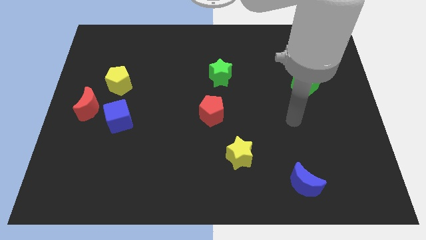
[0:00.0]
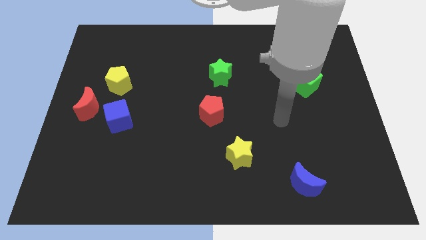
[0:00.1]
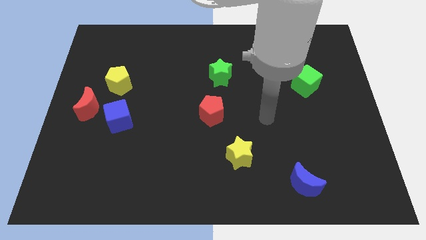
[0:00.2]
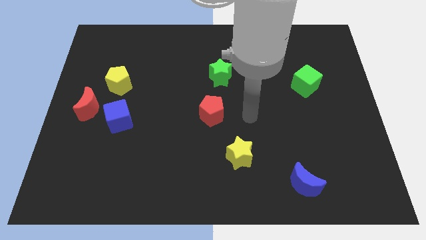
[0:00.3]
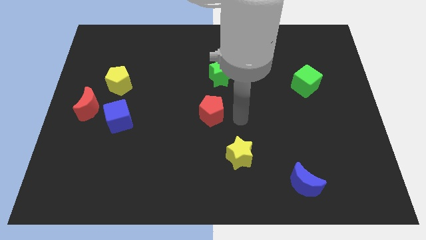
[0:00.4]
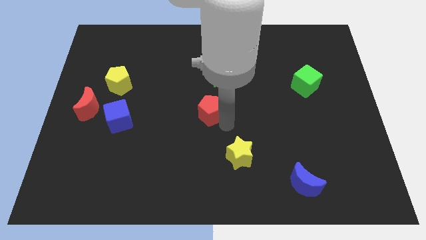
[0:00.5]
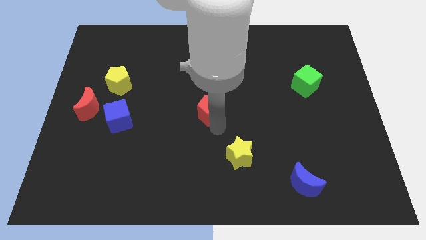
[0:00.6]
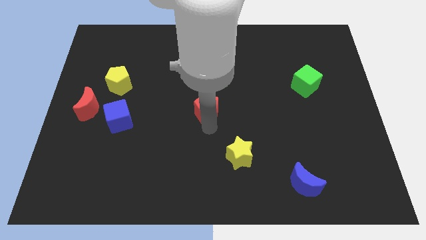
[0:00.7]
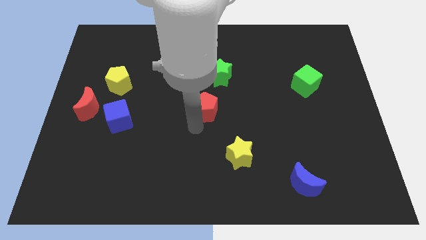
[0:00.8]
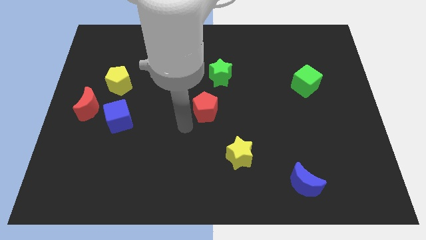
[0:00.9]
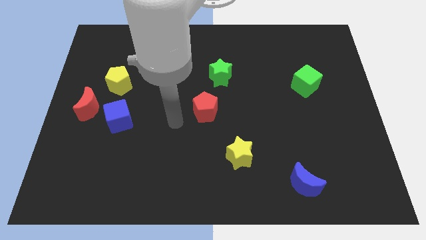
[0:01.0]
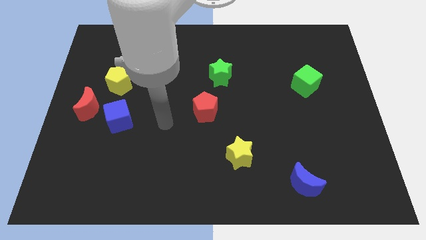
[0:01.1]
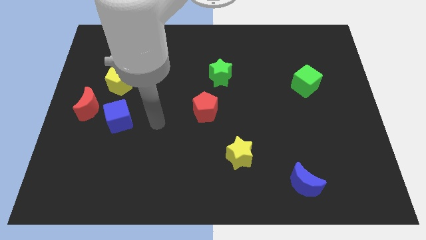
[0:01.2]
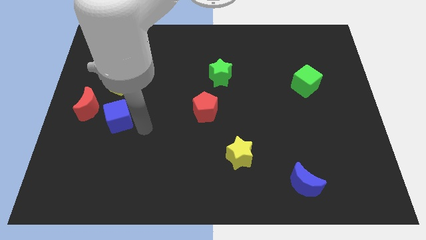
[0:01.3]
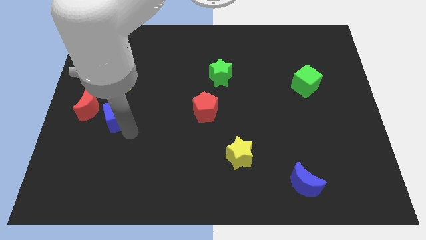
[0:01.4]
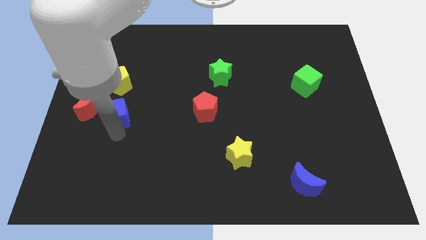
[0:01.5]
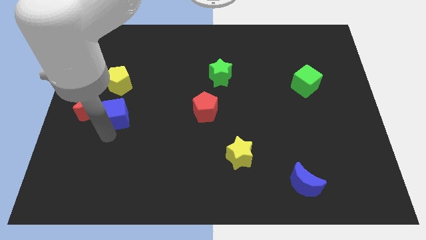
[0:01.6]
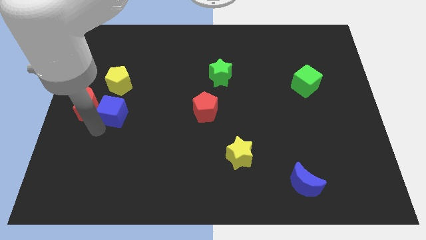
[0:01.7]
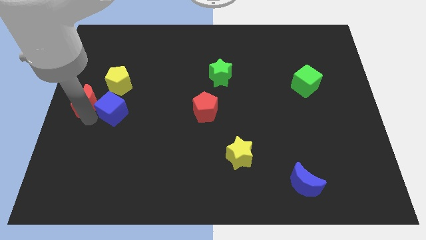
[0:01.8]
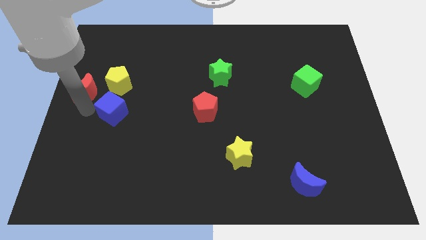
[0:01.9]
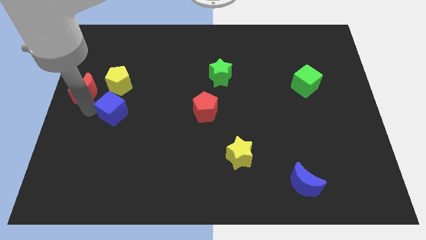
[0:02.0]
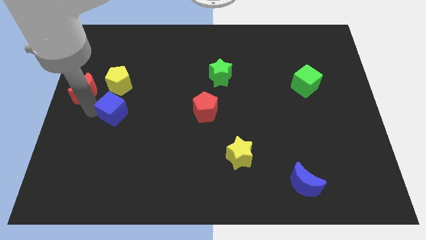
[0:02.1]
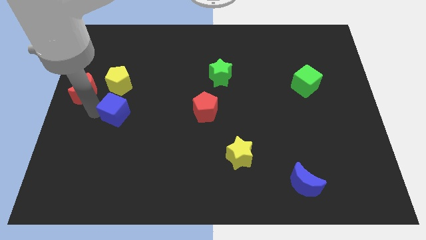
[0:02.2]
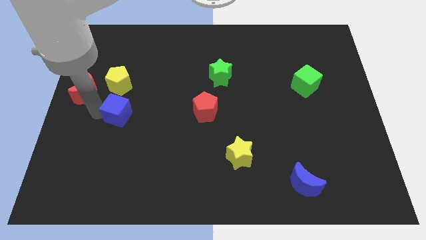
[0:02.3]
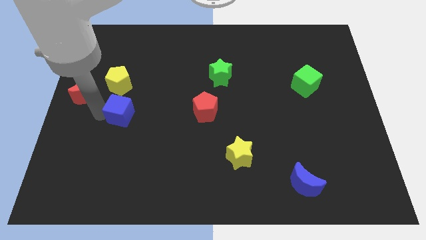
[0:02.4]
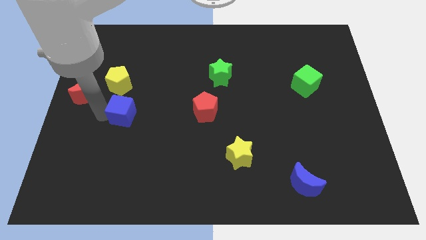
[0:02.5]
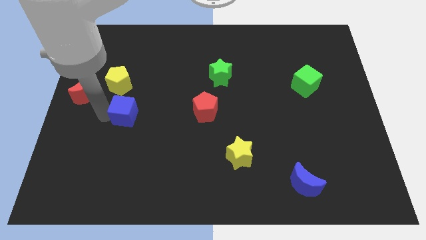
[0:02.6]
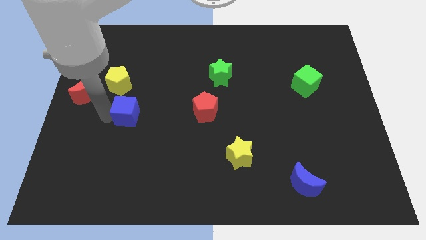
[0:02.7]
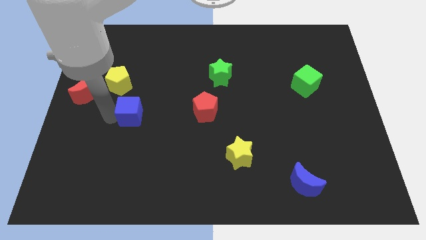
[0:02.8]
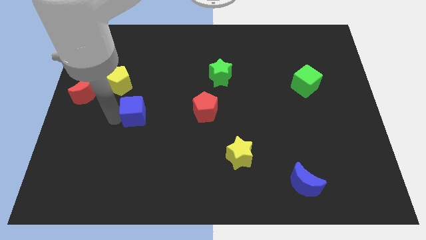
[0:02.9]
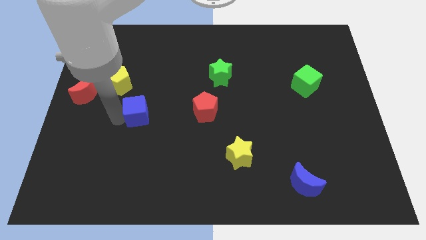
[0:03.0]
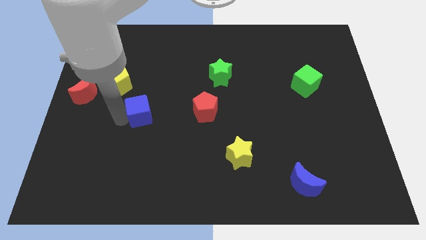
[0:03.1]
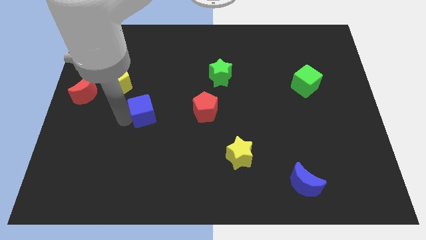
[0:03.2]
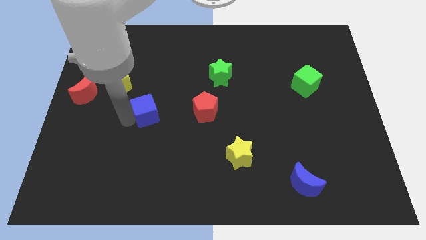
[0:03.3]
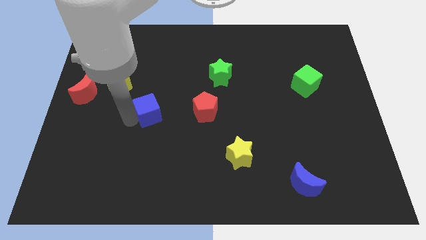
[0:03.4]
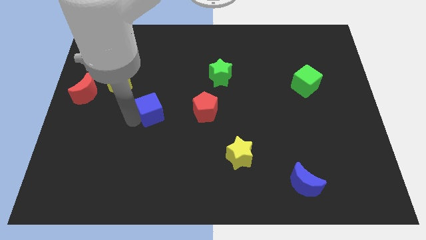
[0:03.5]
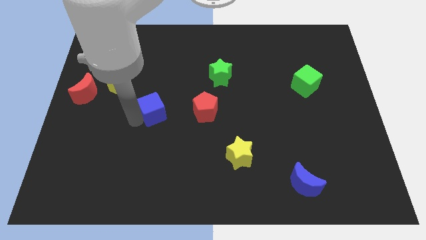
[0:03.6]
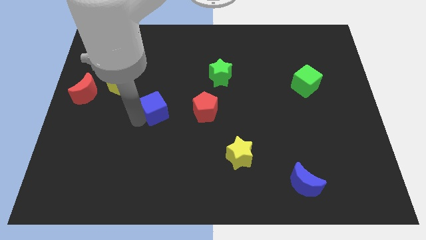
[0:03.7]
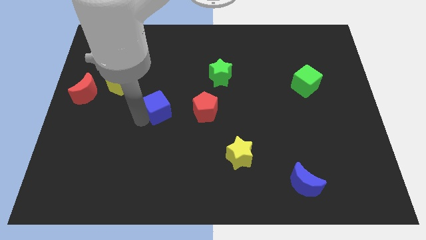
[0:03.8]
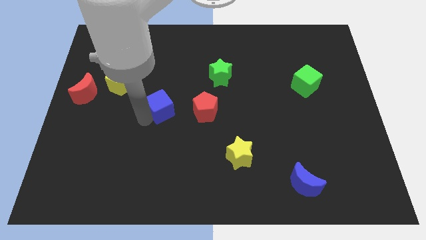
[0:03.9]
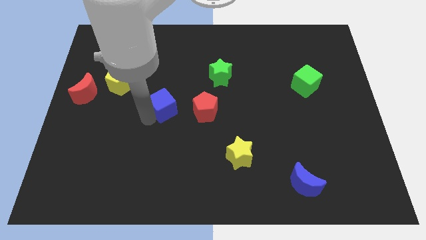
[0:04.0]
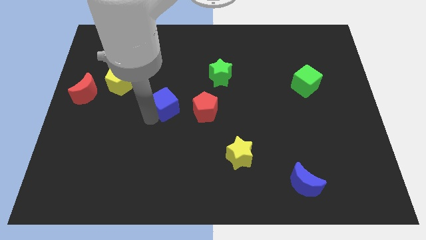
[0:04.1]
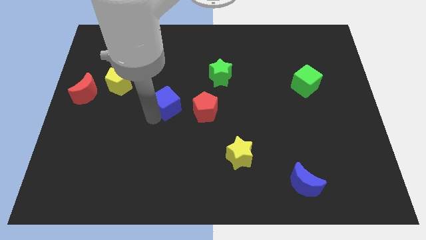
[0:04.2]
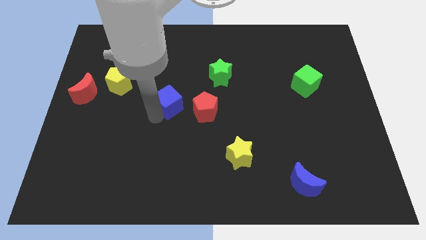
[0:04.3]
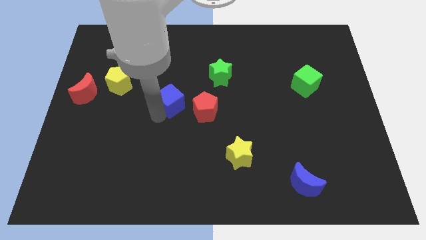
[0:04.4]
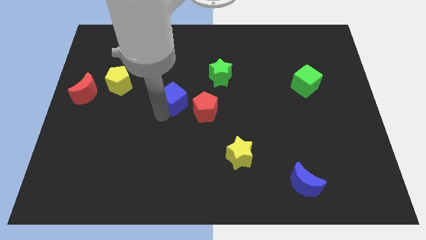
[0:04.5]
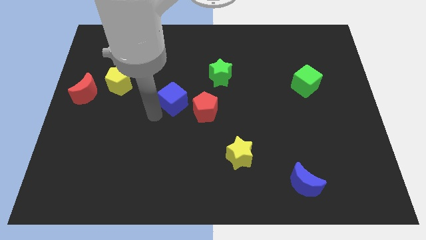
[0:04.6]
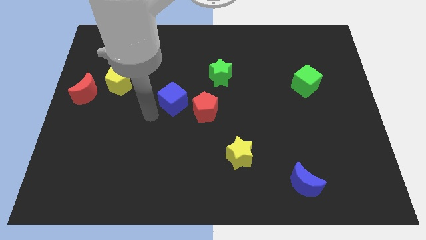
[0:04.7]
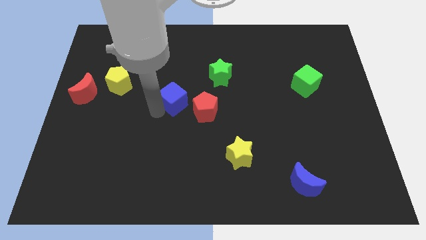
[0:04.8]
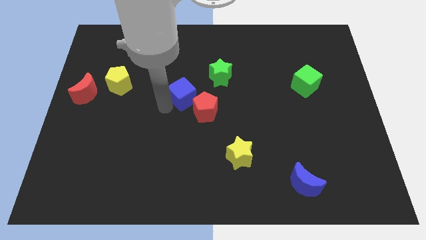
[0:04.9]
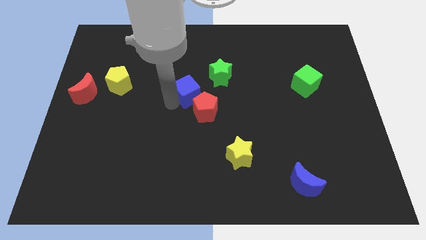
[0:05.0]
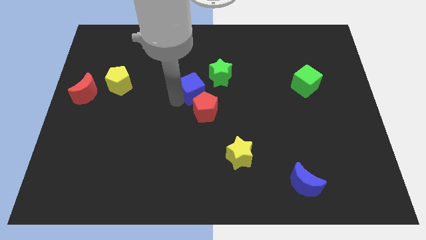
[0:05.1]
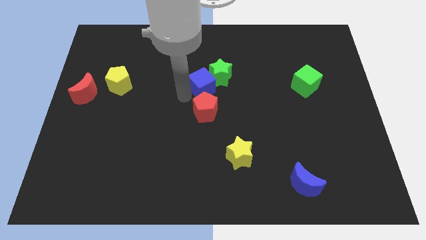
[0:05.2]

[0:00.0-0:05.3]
slide the blue cube close to the green star

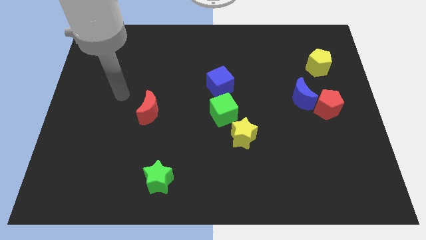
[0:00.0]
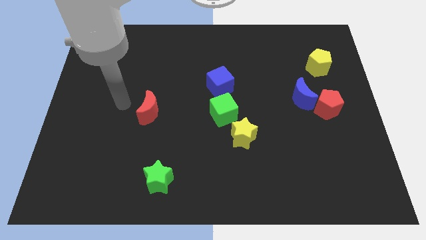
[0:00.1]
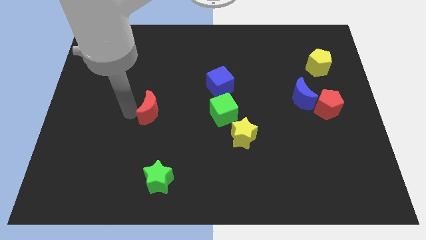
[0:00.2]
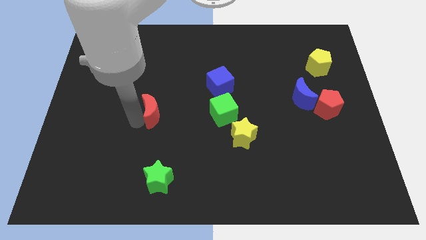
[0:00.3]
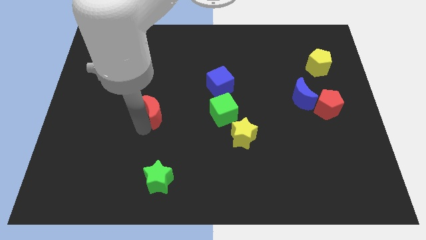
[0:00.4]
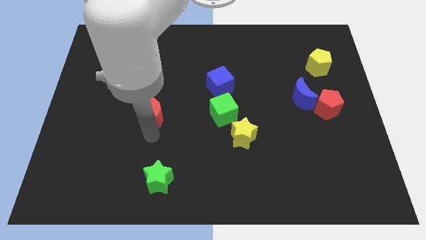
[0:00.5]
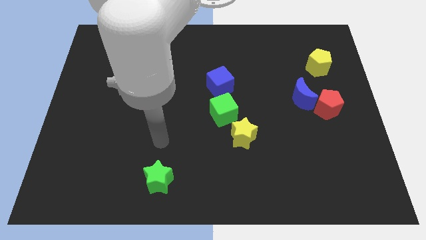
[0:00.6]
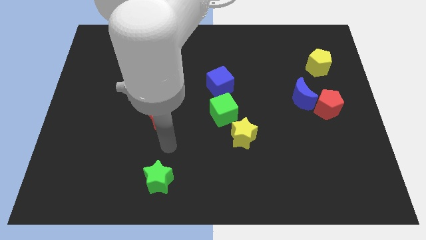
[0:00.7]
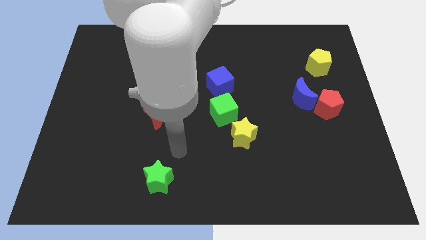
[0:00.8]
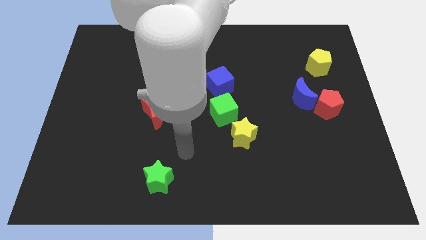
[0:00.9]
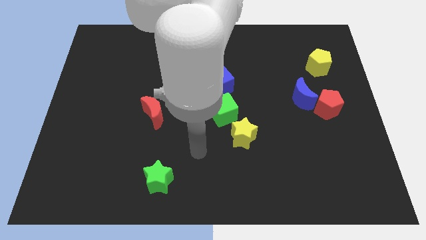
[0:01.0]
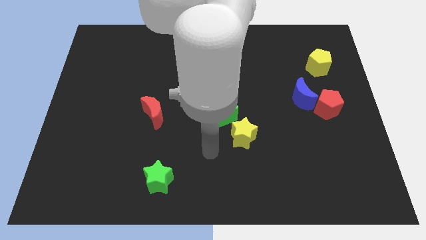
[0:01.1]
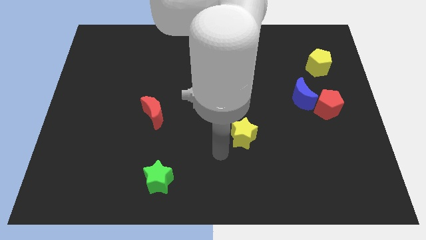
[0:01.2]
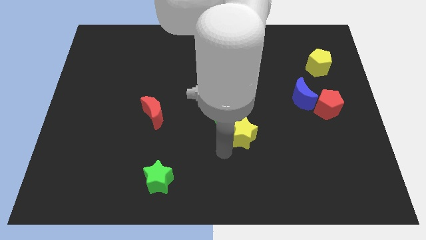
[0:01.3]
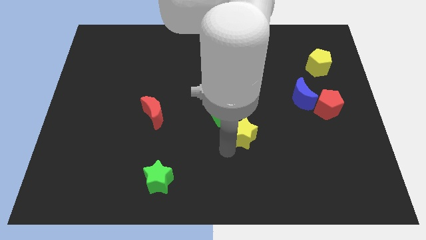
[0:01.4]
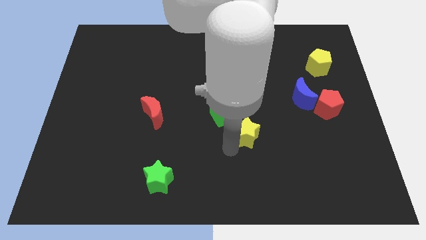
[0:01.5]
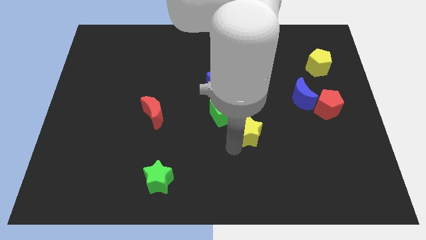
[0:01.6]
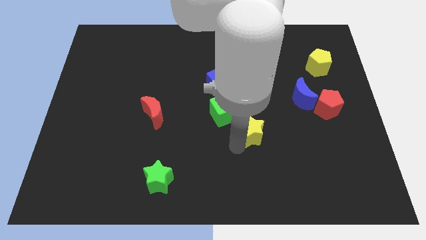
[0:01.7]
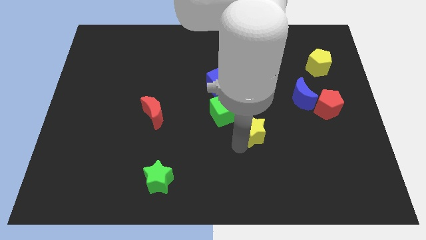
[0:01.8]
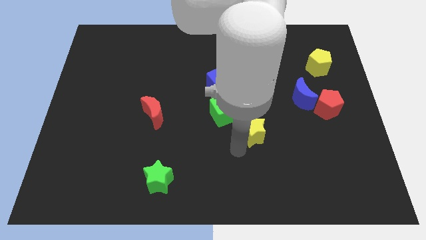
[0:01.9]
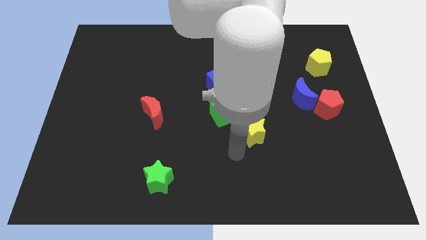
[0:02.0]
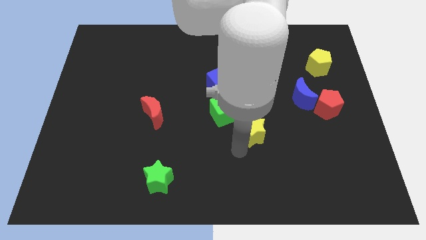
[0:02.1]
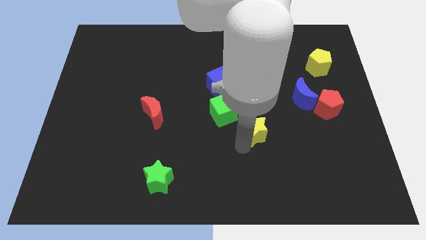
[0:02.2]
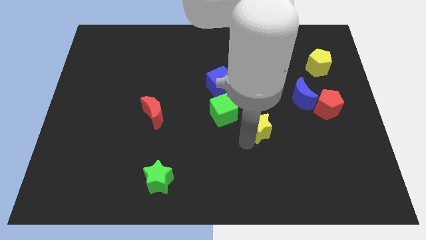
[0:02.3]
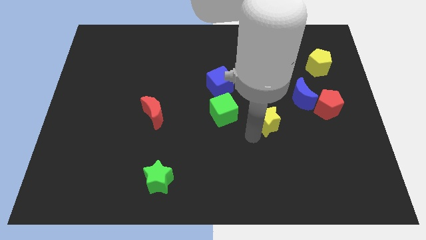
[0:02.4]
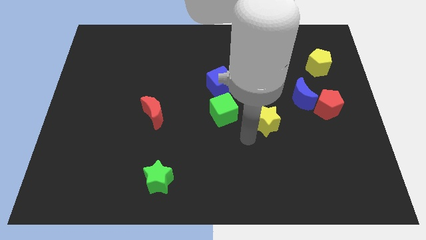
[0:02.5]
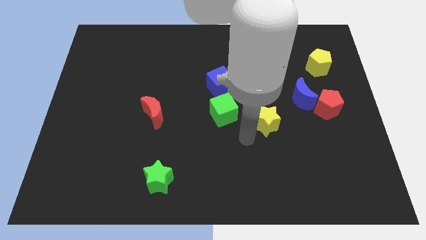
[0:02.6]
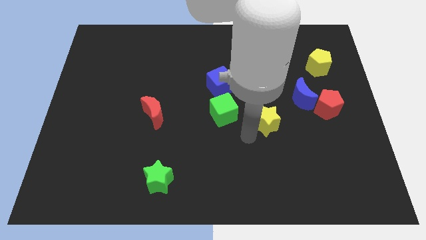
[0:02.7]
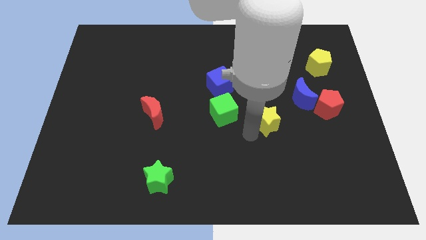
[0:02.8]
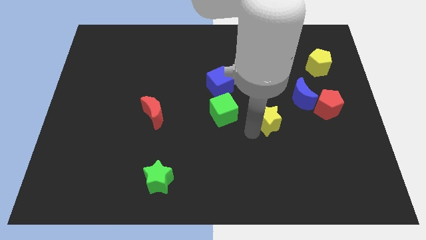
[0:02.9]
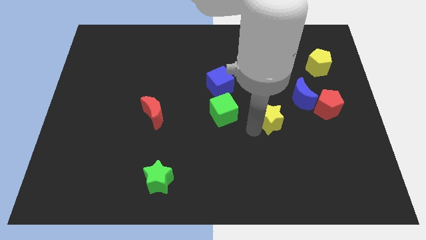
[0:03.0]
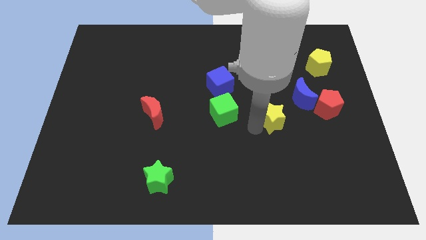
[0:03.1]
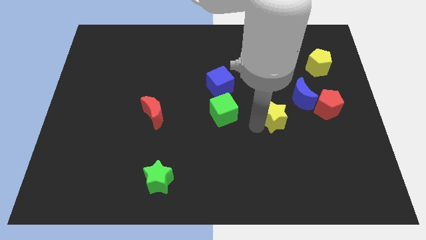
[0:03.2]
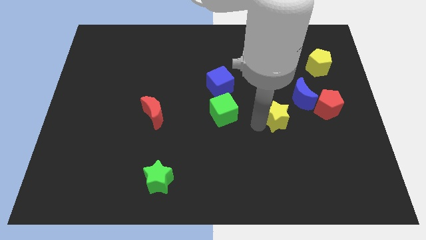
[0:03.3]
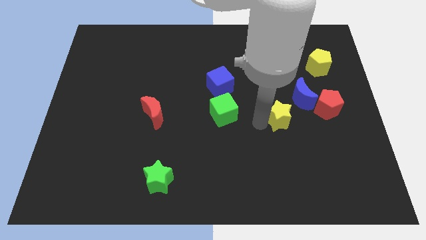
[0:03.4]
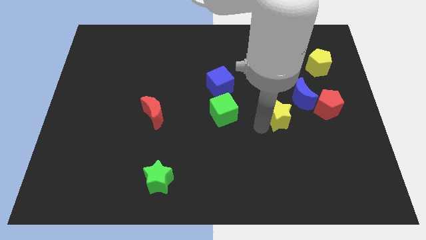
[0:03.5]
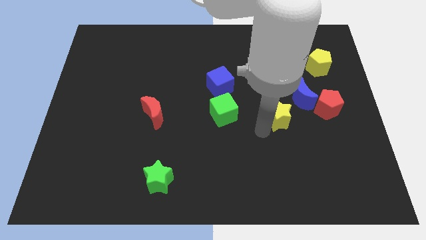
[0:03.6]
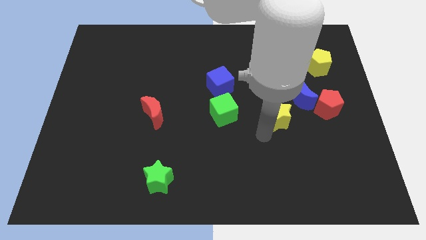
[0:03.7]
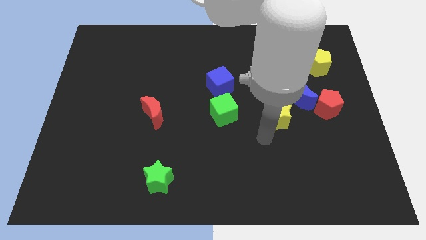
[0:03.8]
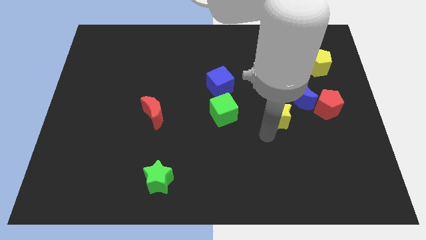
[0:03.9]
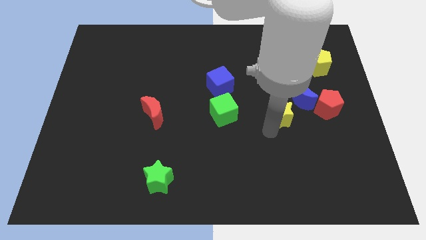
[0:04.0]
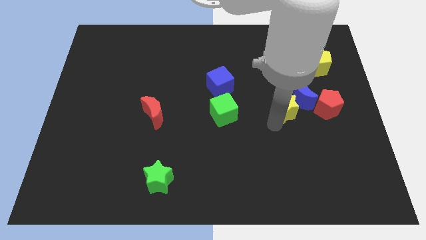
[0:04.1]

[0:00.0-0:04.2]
push the yellow star towards the blue moon
